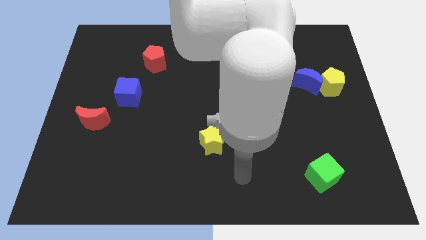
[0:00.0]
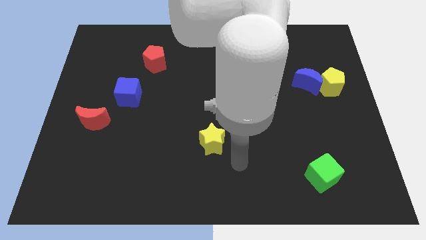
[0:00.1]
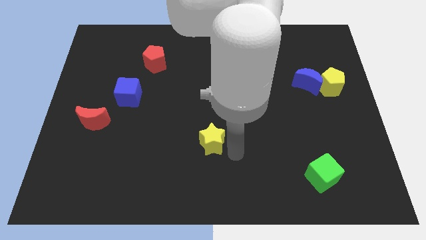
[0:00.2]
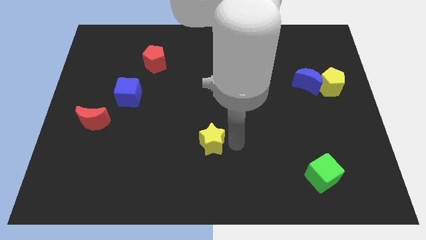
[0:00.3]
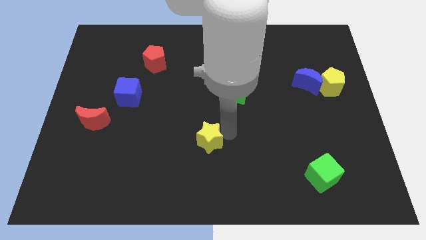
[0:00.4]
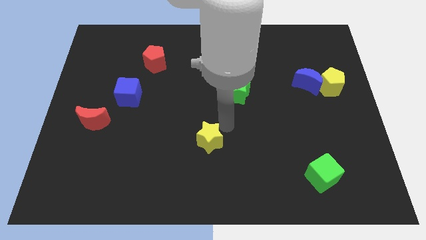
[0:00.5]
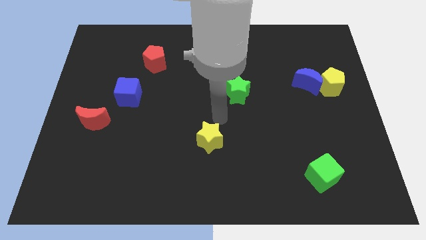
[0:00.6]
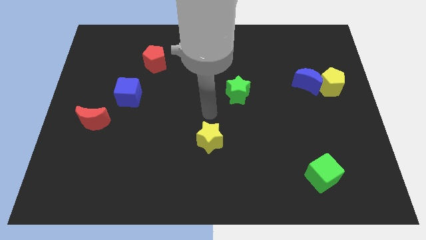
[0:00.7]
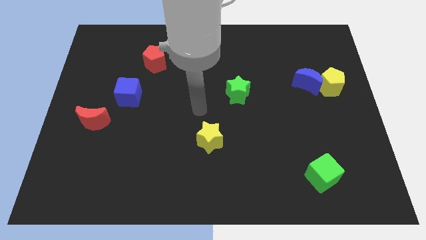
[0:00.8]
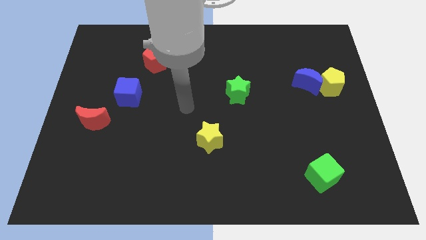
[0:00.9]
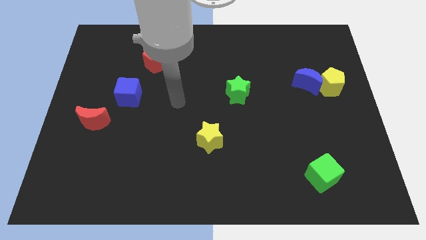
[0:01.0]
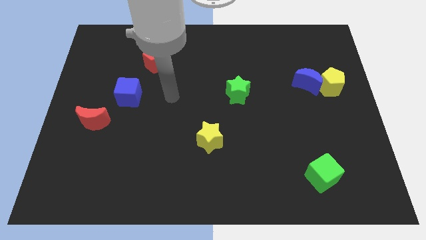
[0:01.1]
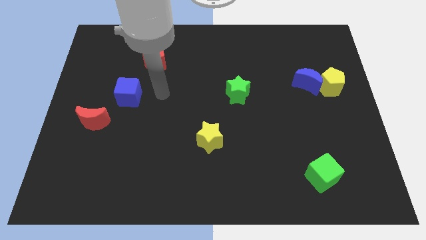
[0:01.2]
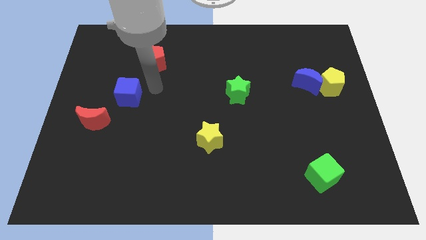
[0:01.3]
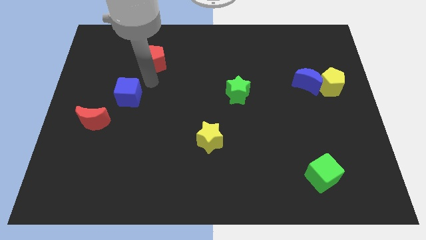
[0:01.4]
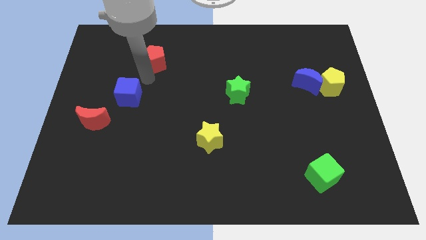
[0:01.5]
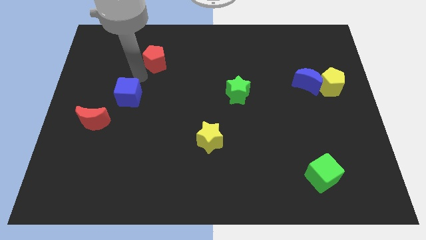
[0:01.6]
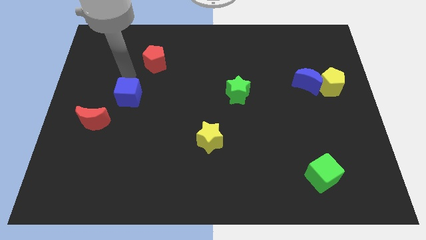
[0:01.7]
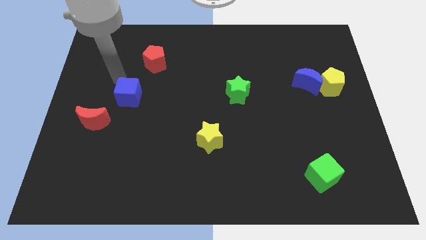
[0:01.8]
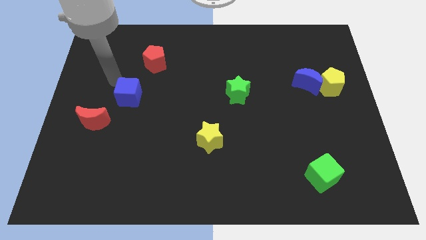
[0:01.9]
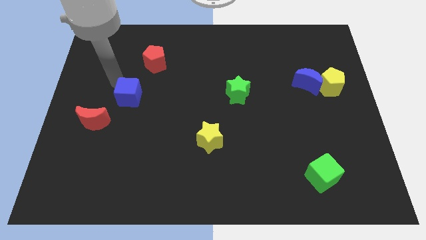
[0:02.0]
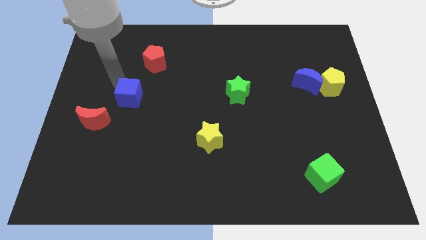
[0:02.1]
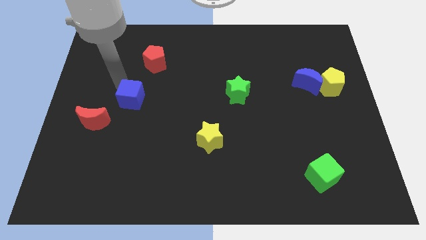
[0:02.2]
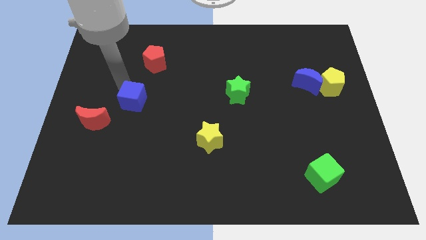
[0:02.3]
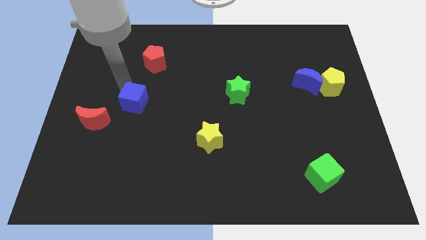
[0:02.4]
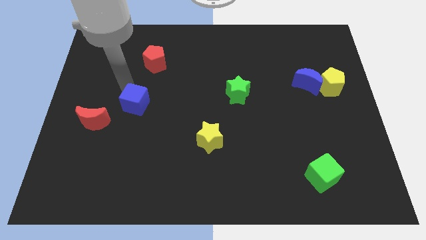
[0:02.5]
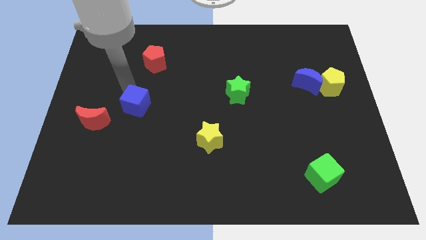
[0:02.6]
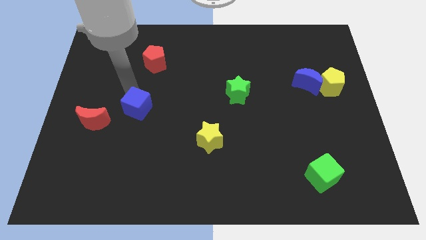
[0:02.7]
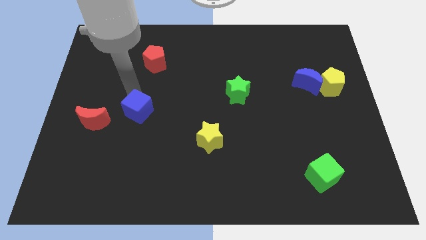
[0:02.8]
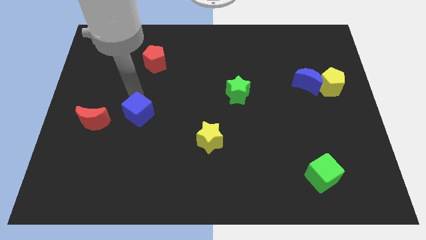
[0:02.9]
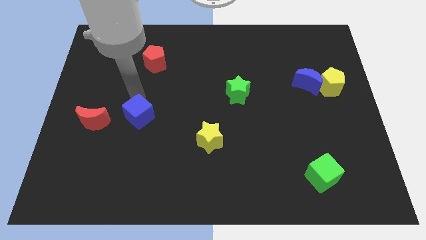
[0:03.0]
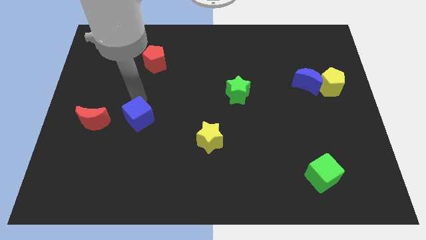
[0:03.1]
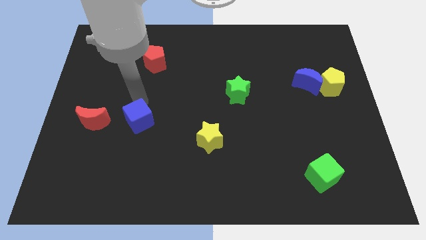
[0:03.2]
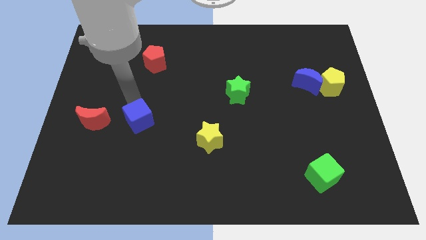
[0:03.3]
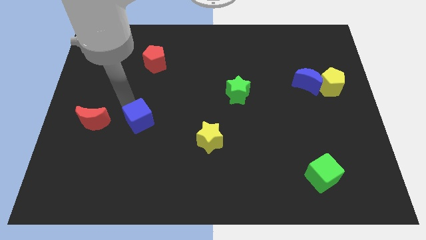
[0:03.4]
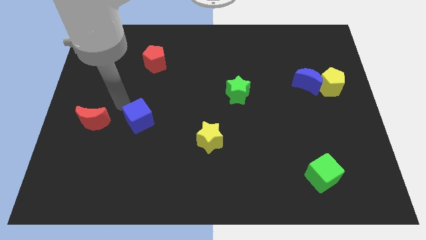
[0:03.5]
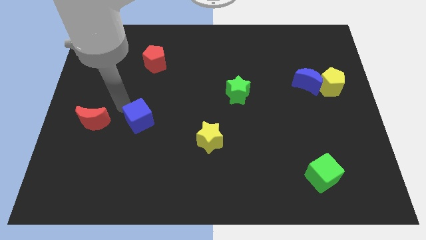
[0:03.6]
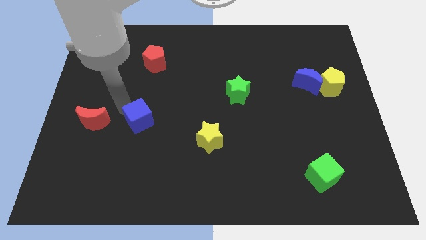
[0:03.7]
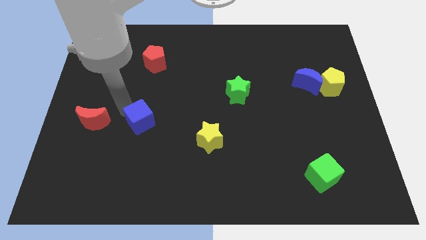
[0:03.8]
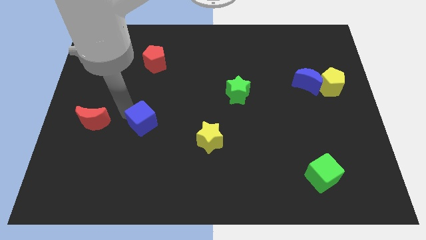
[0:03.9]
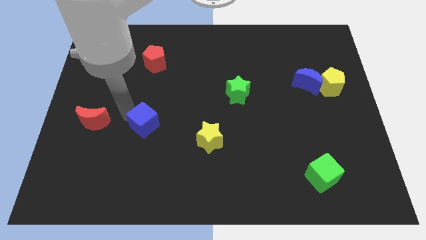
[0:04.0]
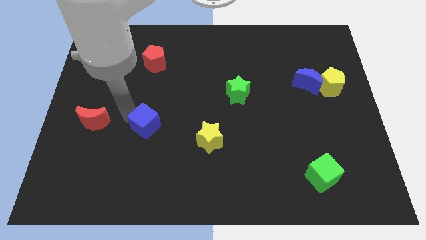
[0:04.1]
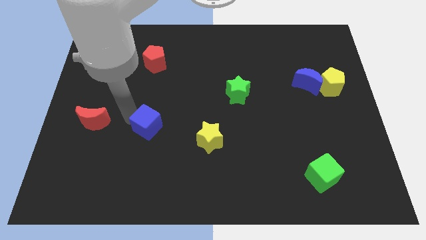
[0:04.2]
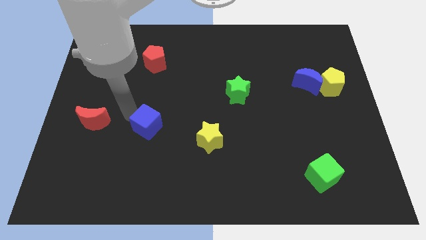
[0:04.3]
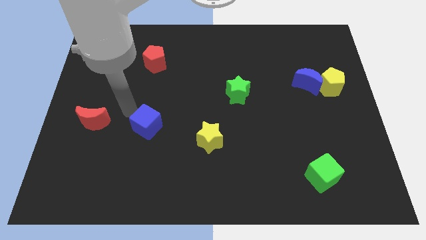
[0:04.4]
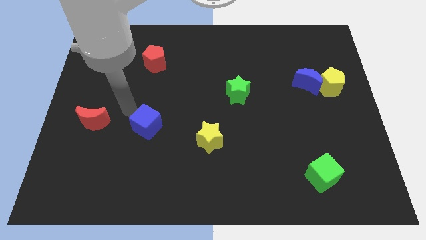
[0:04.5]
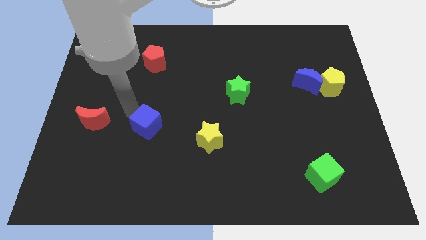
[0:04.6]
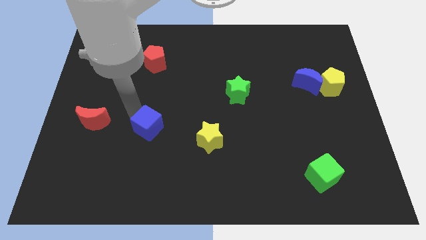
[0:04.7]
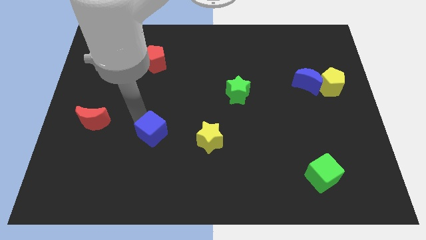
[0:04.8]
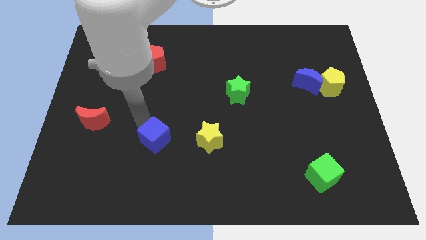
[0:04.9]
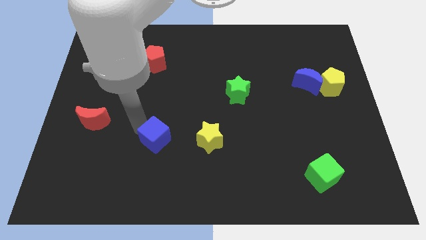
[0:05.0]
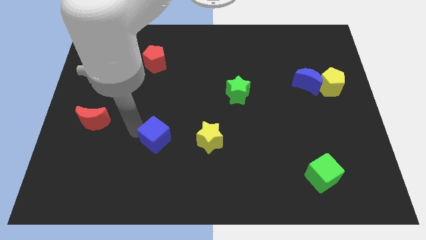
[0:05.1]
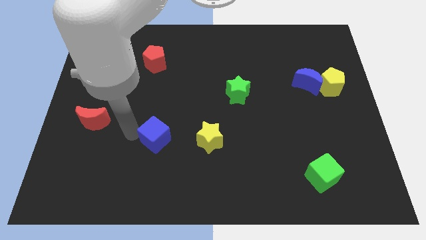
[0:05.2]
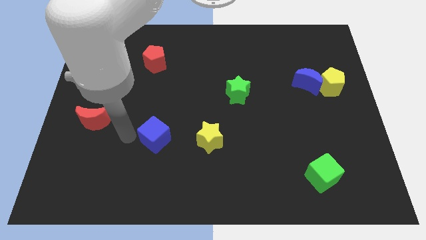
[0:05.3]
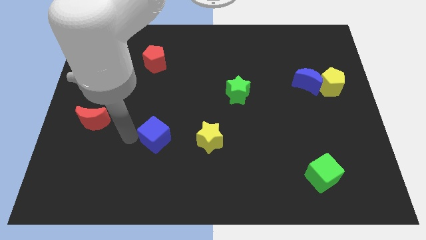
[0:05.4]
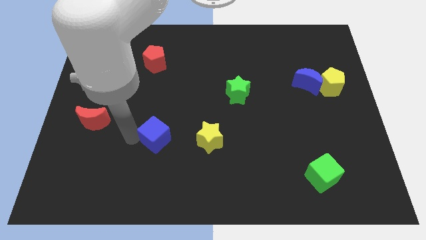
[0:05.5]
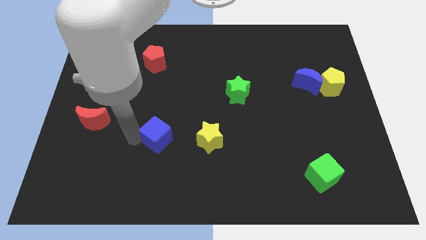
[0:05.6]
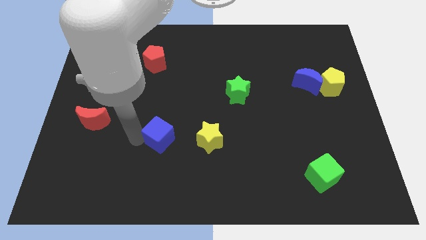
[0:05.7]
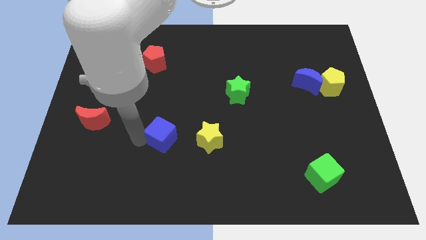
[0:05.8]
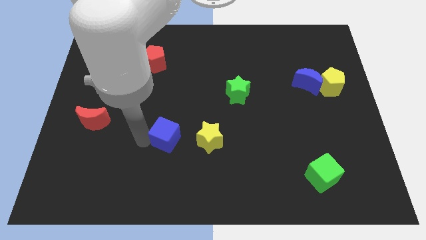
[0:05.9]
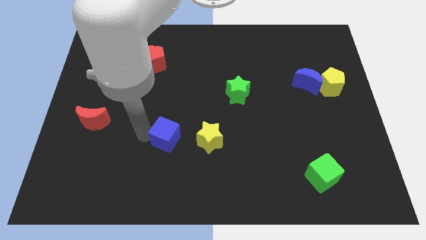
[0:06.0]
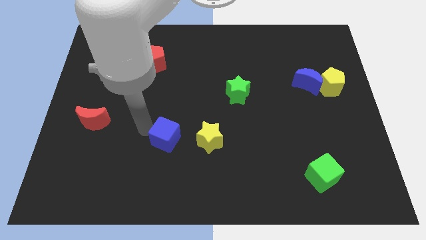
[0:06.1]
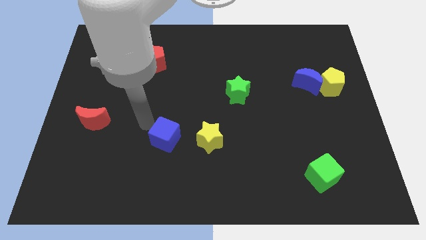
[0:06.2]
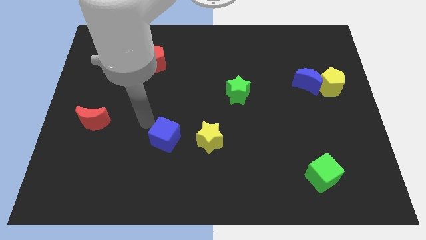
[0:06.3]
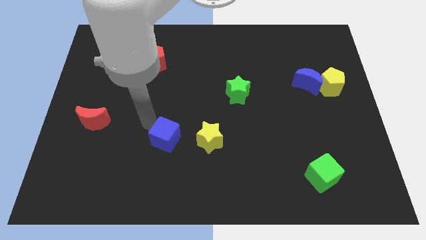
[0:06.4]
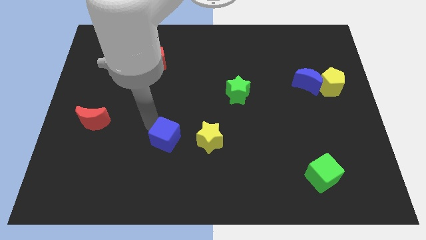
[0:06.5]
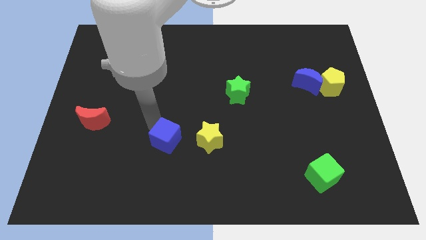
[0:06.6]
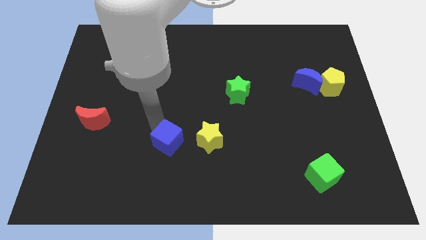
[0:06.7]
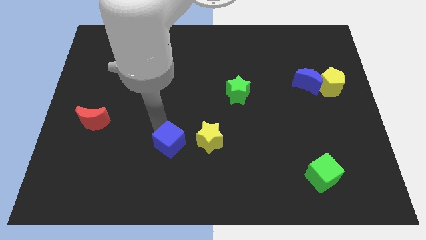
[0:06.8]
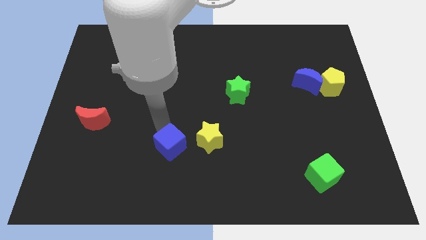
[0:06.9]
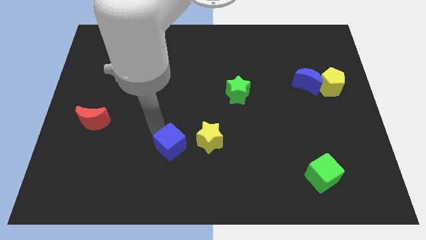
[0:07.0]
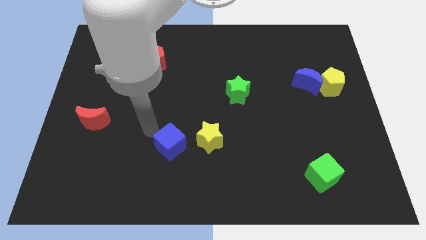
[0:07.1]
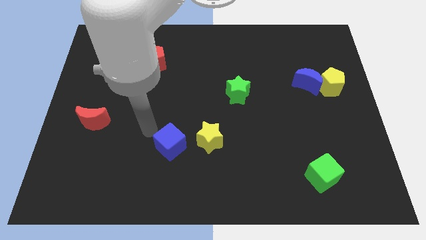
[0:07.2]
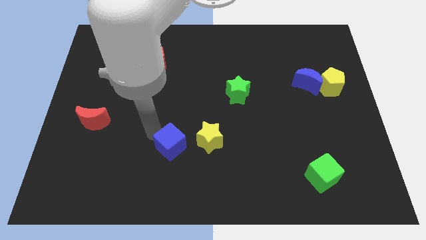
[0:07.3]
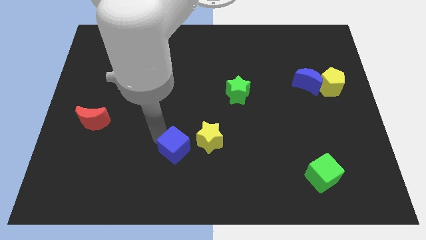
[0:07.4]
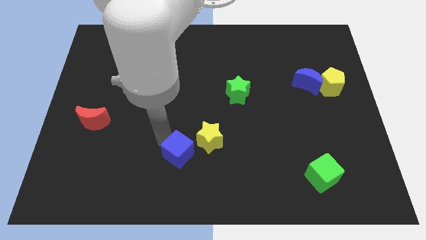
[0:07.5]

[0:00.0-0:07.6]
push the blue cube downwards and to the right

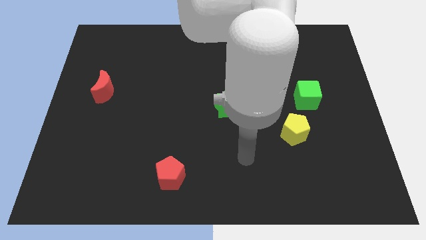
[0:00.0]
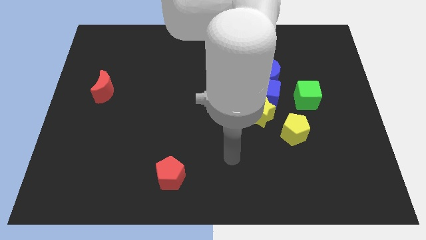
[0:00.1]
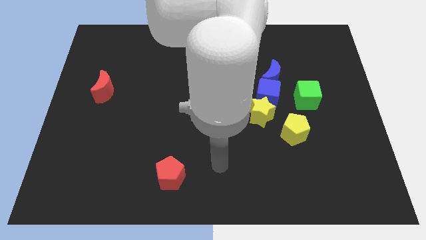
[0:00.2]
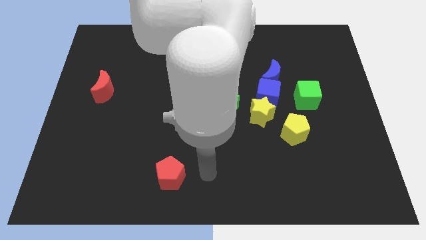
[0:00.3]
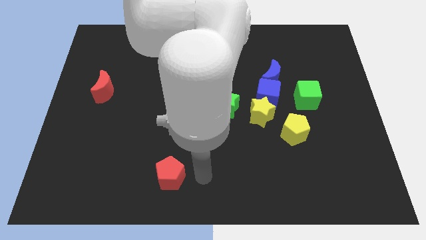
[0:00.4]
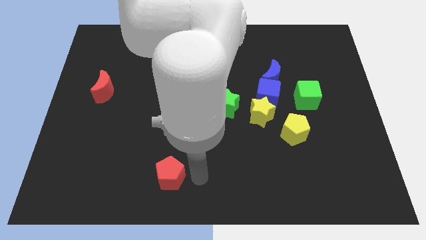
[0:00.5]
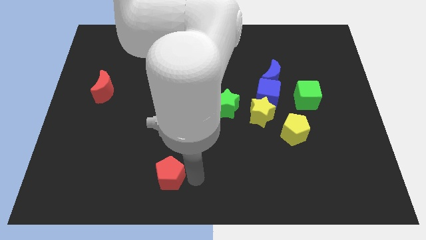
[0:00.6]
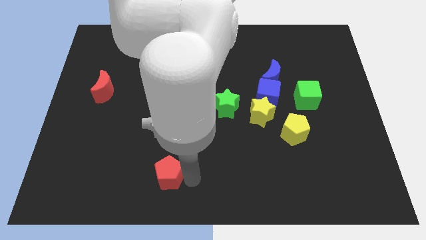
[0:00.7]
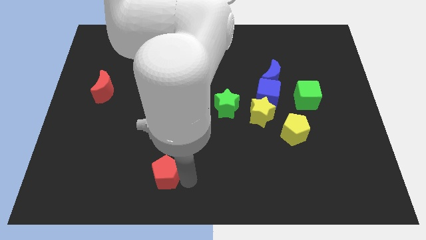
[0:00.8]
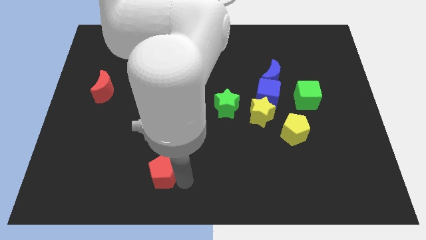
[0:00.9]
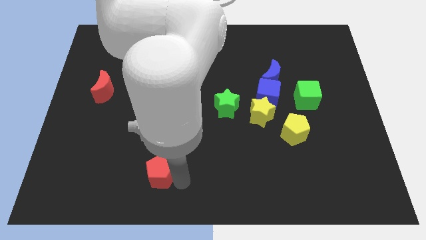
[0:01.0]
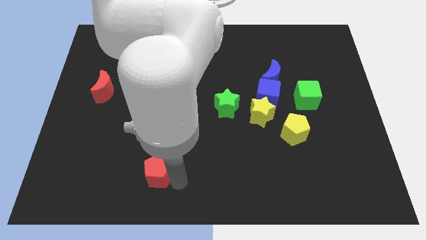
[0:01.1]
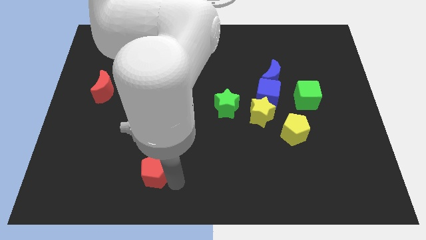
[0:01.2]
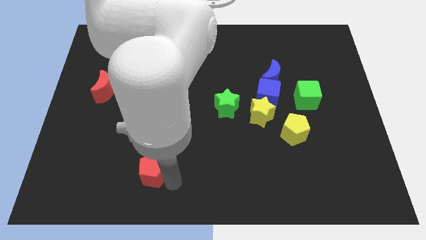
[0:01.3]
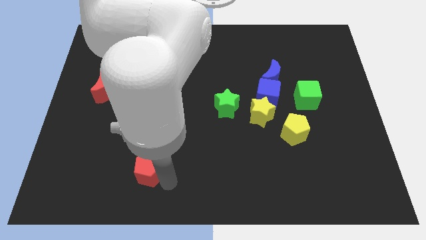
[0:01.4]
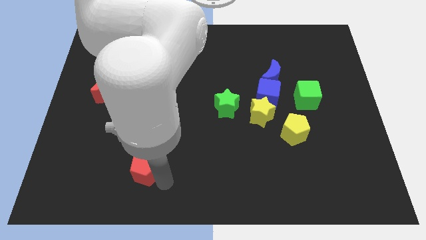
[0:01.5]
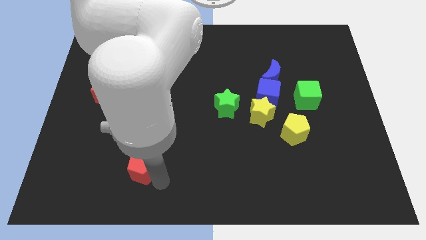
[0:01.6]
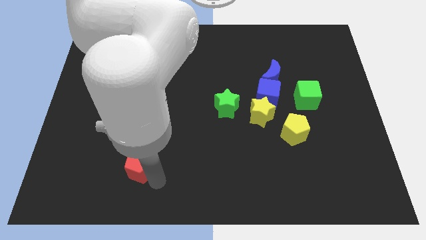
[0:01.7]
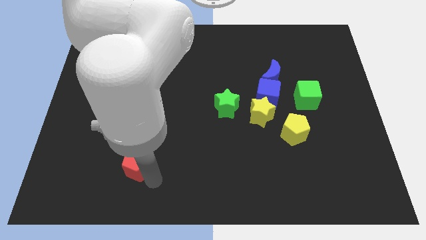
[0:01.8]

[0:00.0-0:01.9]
move the red pentagon a bit left
